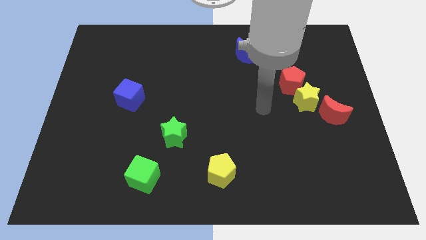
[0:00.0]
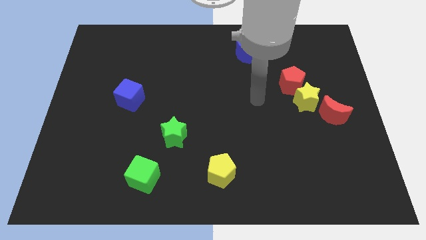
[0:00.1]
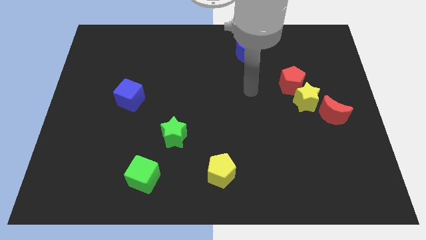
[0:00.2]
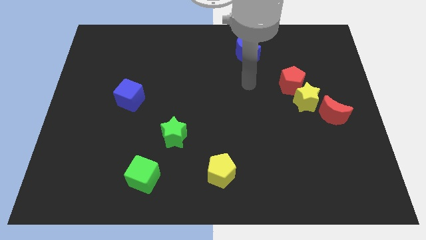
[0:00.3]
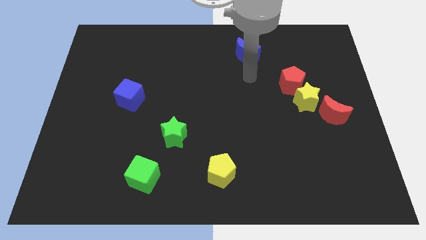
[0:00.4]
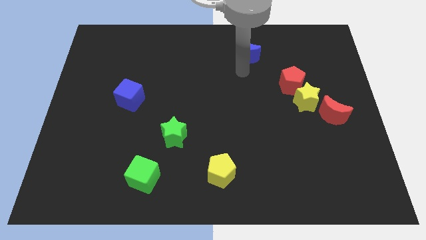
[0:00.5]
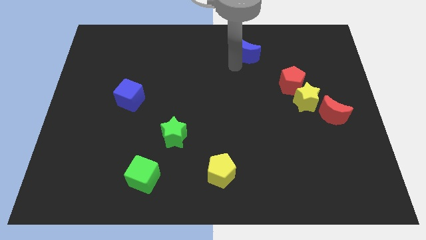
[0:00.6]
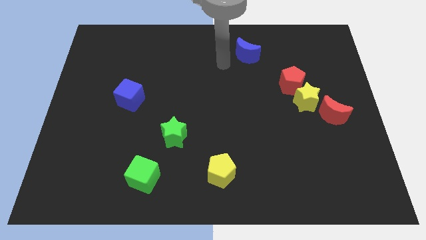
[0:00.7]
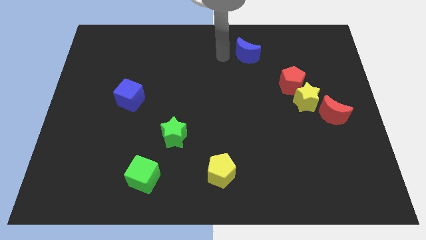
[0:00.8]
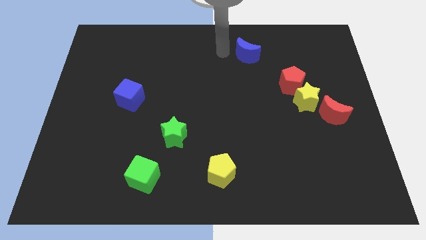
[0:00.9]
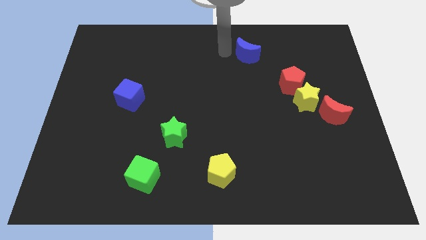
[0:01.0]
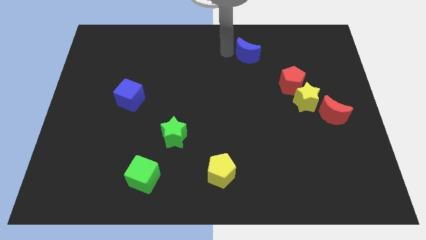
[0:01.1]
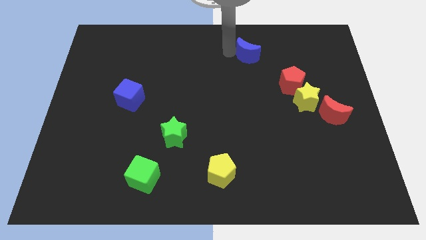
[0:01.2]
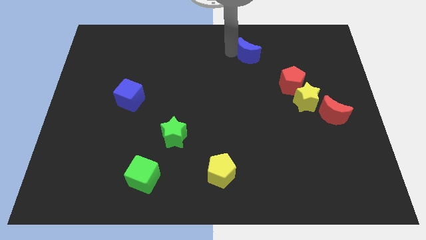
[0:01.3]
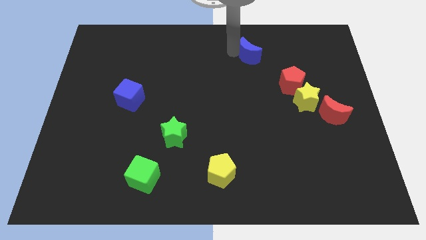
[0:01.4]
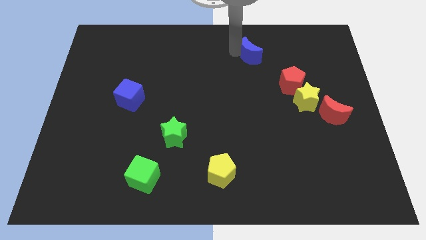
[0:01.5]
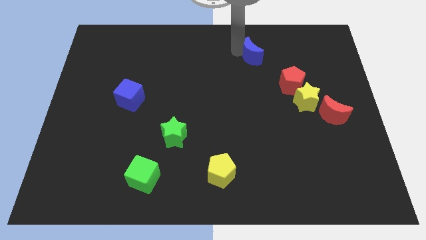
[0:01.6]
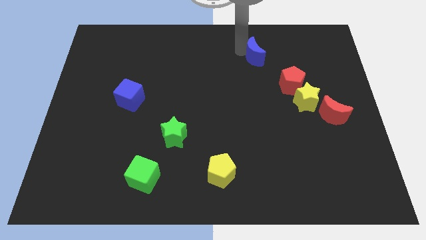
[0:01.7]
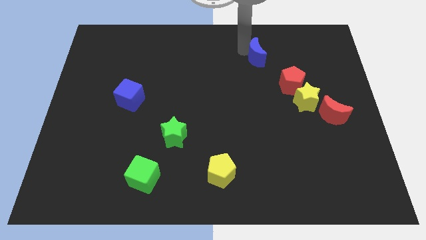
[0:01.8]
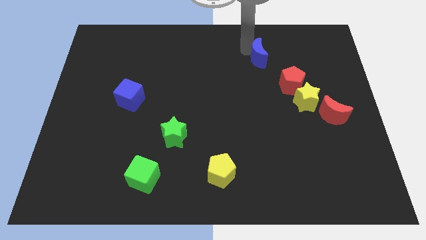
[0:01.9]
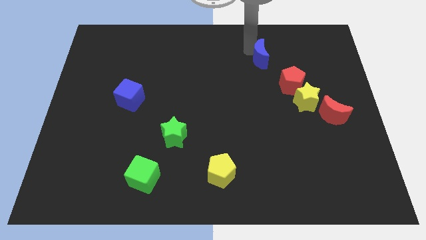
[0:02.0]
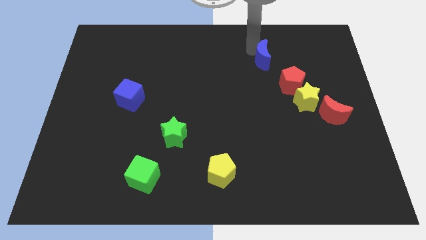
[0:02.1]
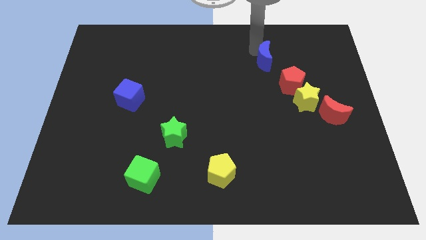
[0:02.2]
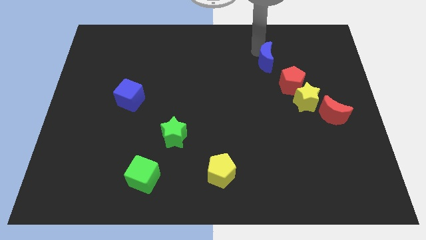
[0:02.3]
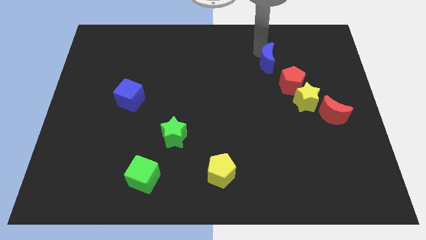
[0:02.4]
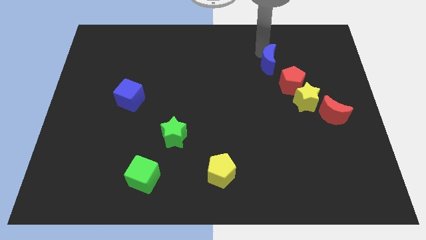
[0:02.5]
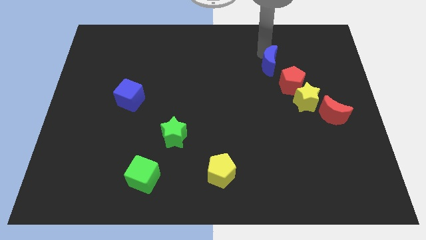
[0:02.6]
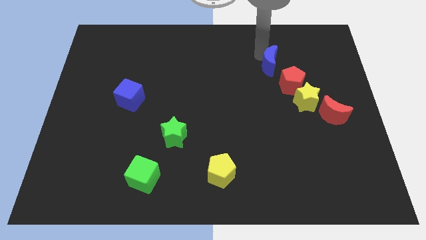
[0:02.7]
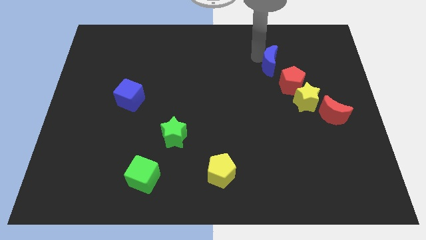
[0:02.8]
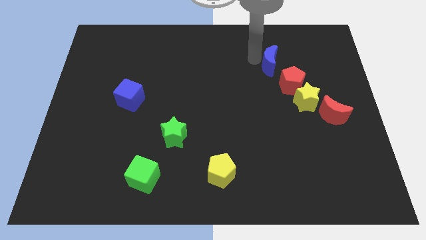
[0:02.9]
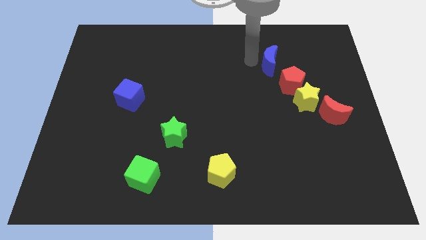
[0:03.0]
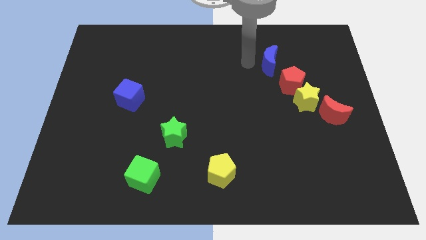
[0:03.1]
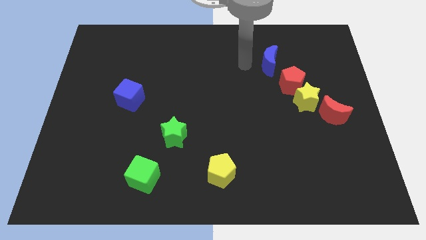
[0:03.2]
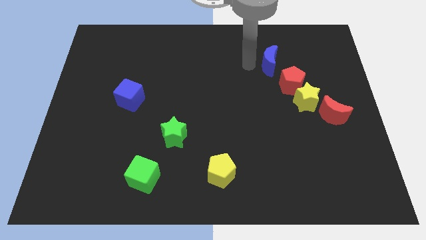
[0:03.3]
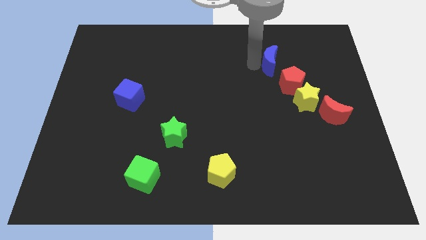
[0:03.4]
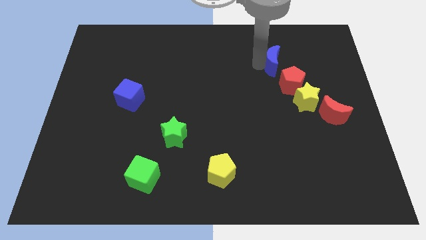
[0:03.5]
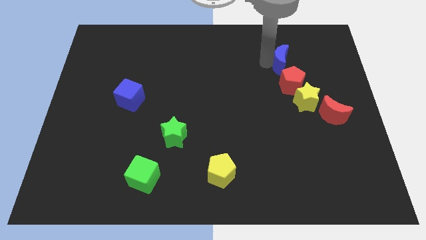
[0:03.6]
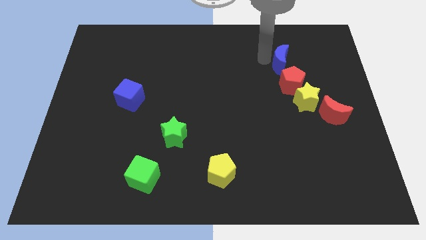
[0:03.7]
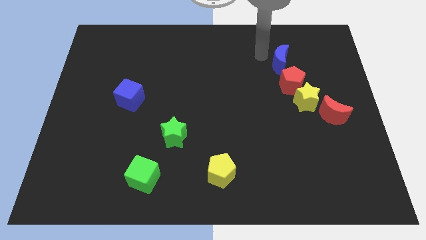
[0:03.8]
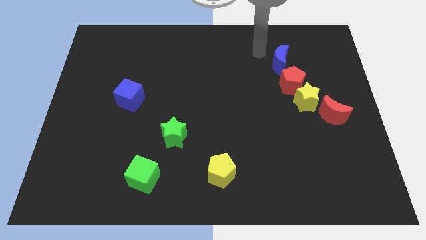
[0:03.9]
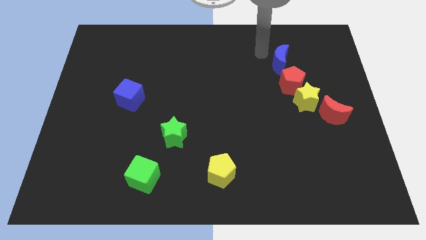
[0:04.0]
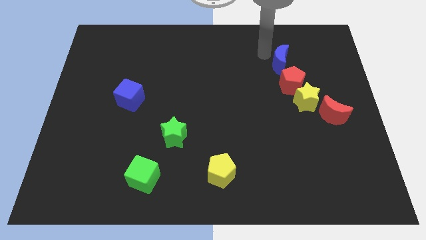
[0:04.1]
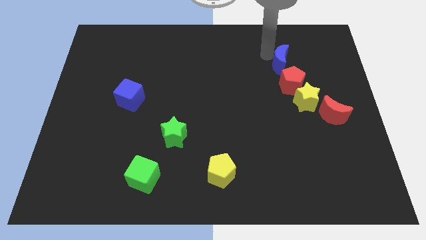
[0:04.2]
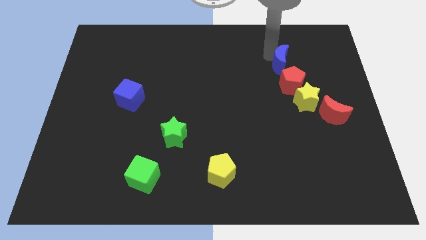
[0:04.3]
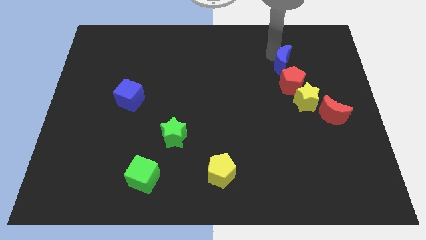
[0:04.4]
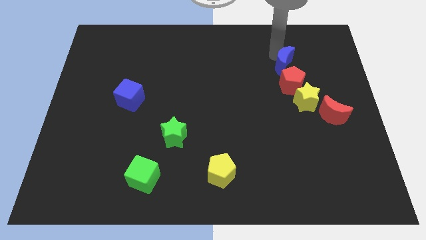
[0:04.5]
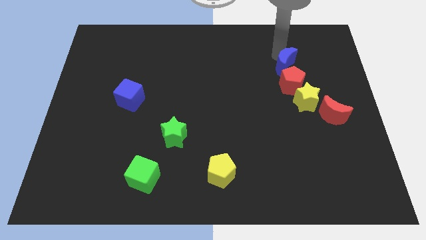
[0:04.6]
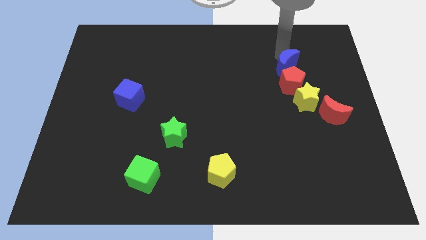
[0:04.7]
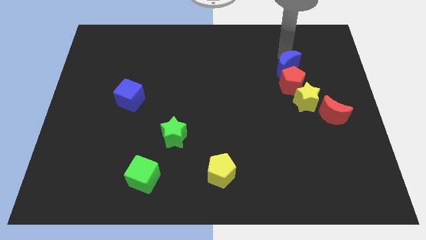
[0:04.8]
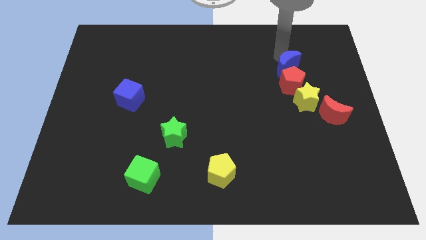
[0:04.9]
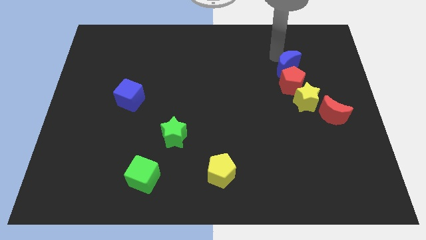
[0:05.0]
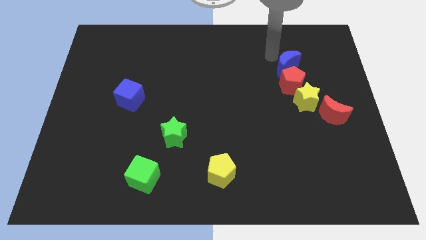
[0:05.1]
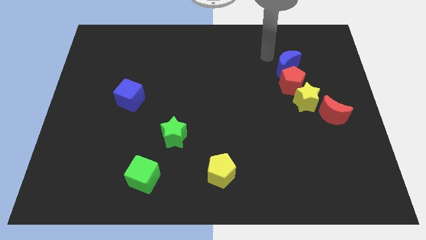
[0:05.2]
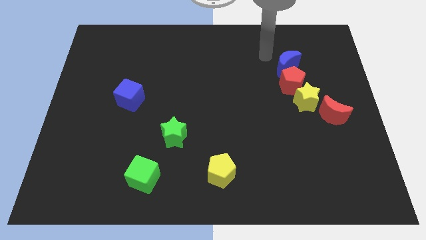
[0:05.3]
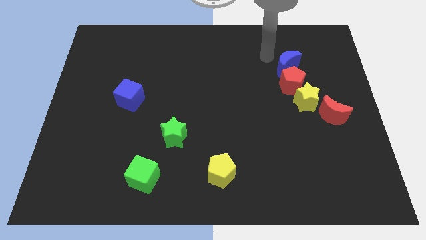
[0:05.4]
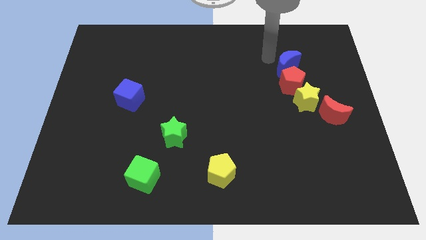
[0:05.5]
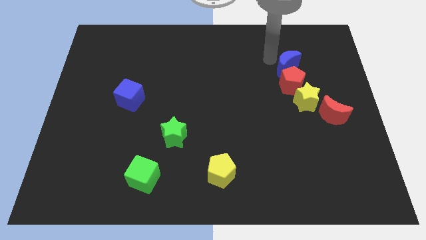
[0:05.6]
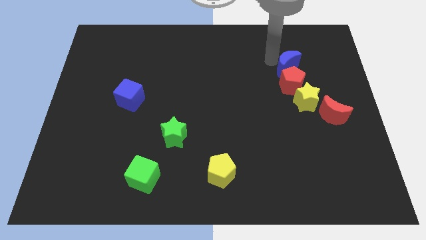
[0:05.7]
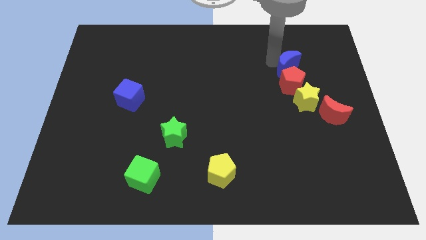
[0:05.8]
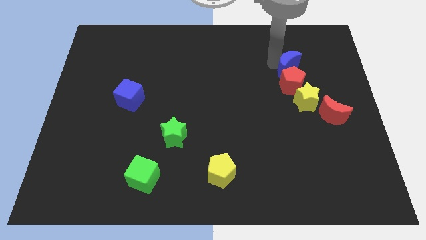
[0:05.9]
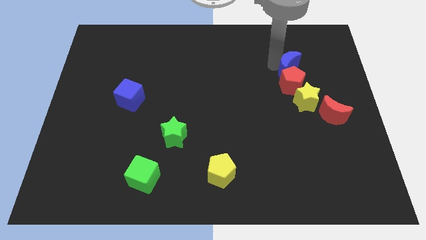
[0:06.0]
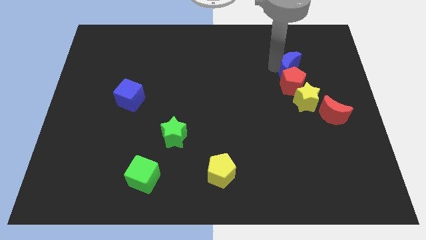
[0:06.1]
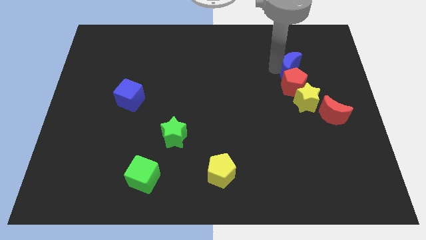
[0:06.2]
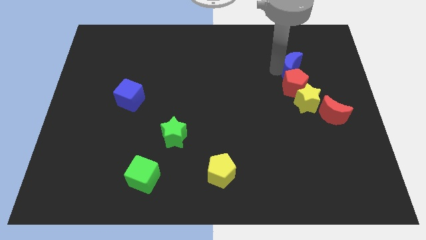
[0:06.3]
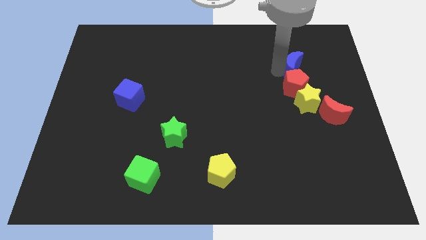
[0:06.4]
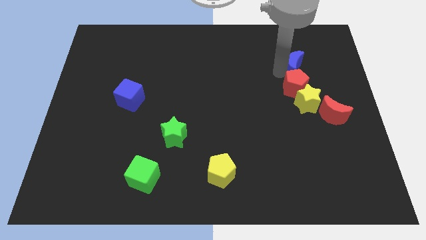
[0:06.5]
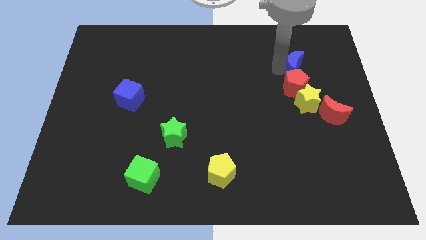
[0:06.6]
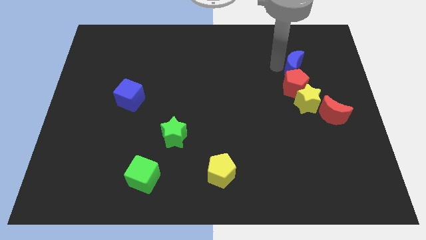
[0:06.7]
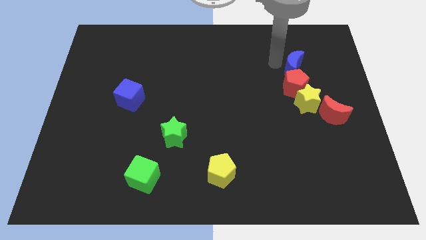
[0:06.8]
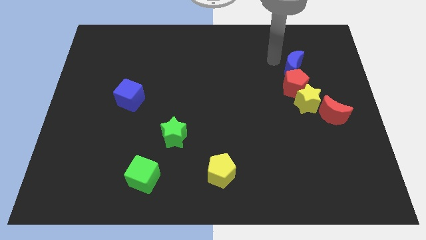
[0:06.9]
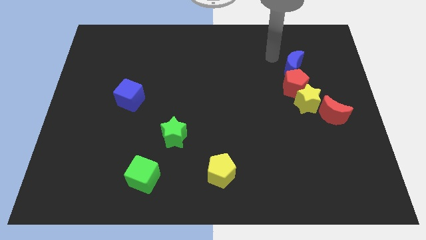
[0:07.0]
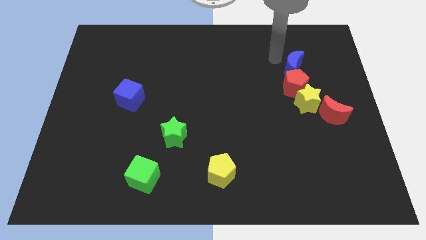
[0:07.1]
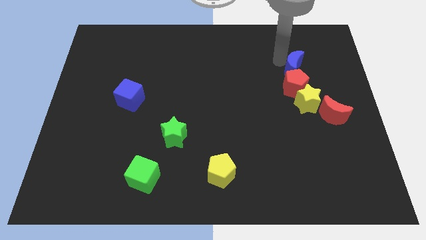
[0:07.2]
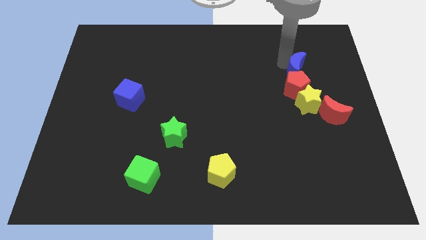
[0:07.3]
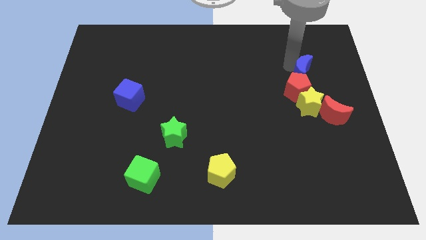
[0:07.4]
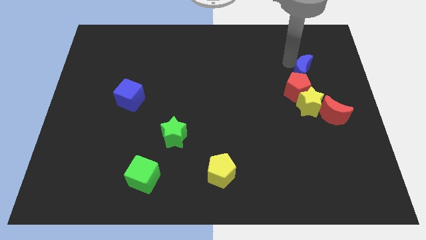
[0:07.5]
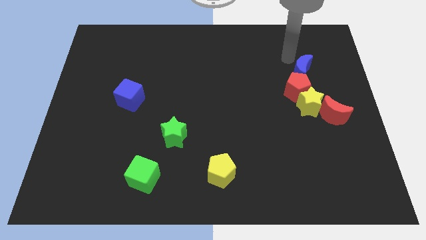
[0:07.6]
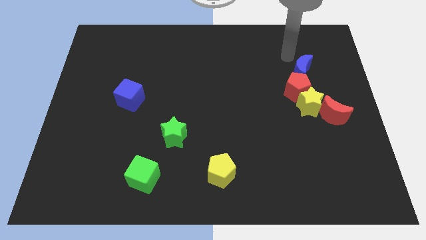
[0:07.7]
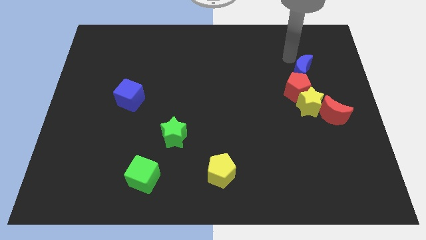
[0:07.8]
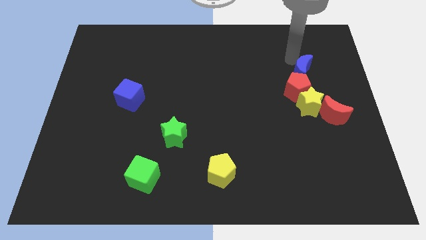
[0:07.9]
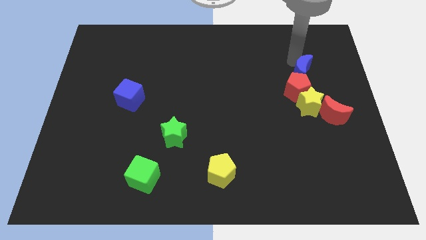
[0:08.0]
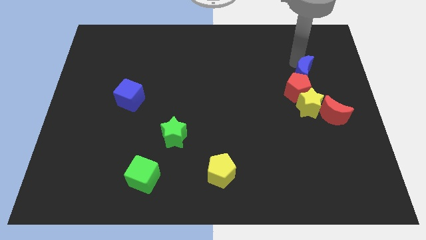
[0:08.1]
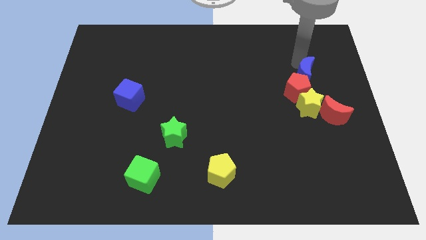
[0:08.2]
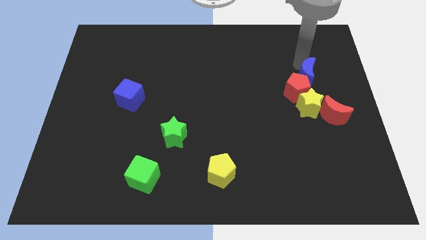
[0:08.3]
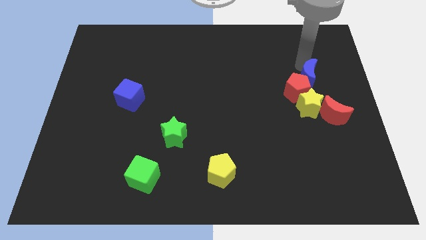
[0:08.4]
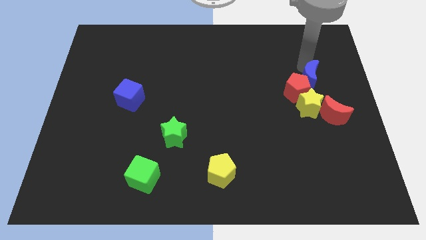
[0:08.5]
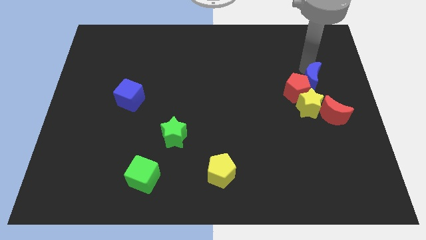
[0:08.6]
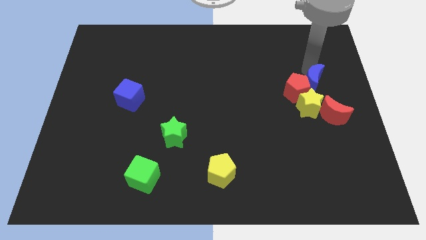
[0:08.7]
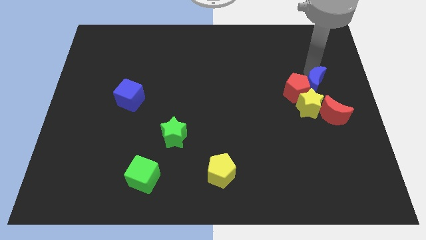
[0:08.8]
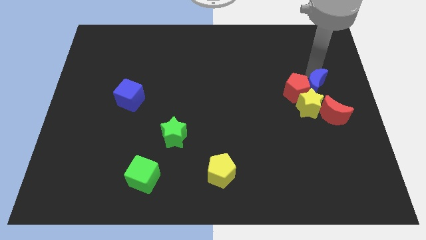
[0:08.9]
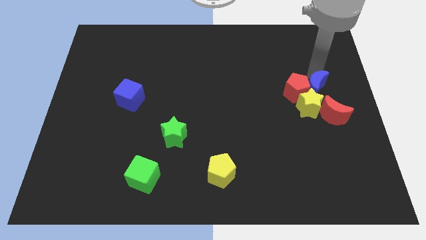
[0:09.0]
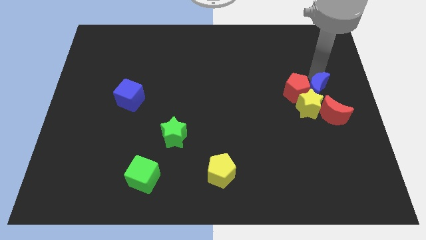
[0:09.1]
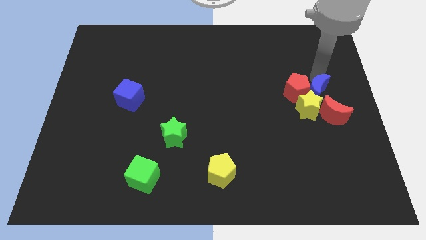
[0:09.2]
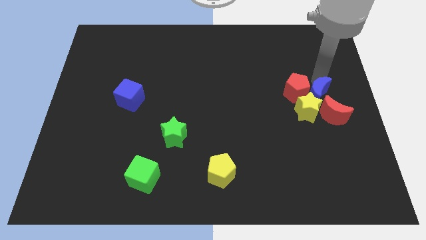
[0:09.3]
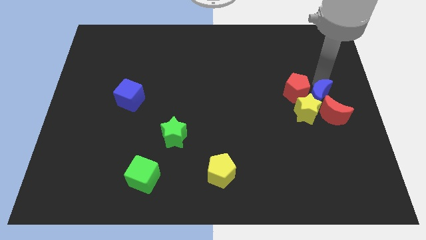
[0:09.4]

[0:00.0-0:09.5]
slide the blue moon next to the red moon
